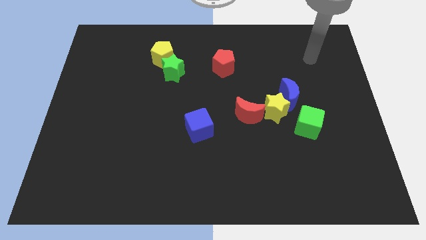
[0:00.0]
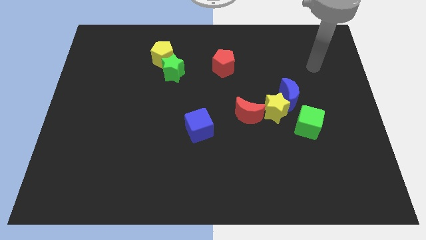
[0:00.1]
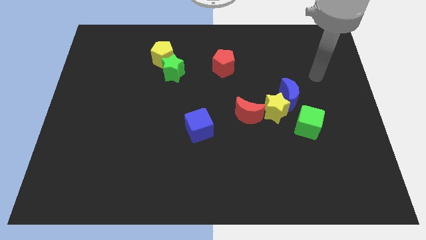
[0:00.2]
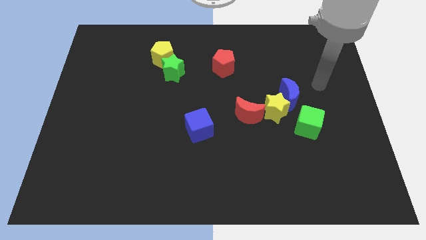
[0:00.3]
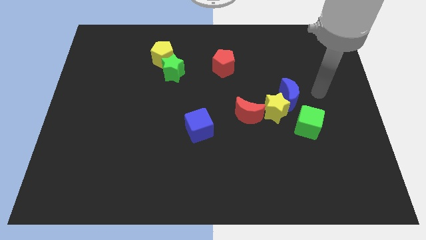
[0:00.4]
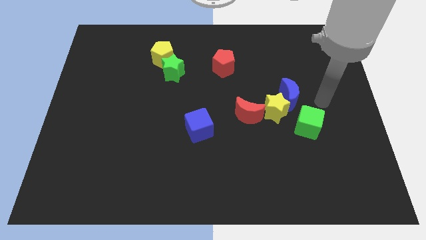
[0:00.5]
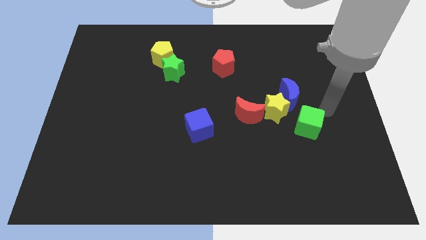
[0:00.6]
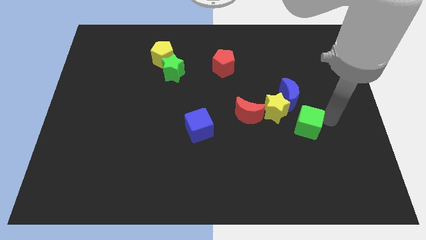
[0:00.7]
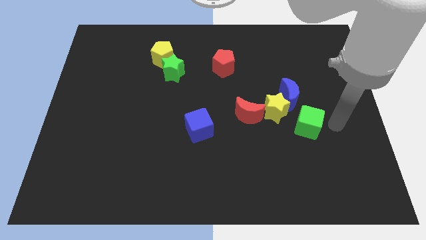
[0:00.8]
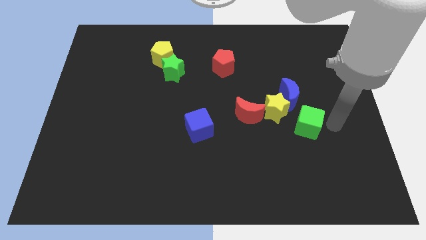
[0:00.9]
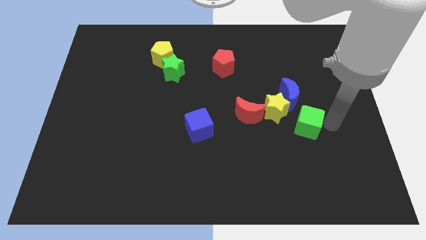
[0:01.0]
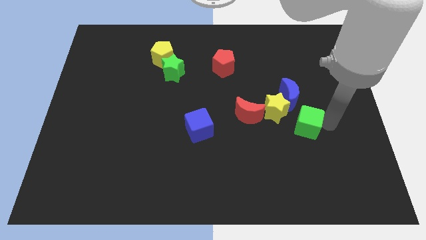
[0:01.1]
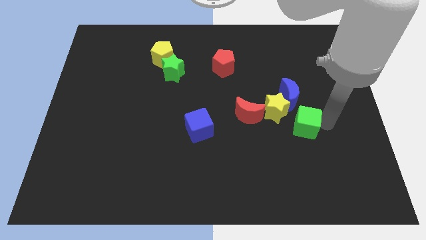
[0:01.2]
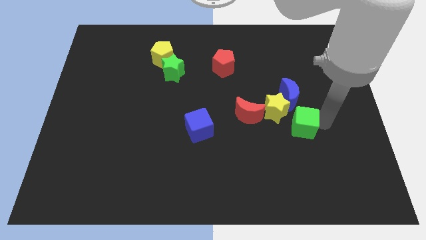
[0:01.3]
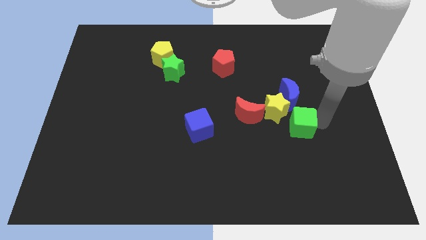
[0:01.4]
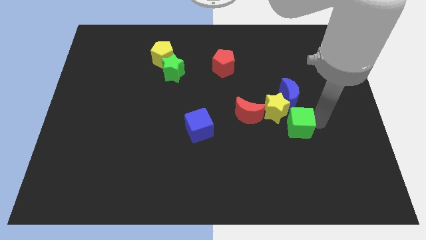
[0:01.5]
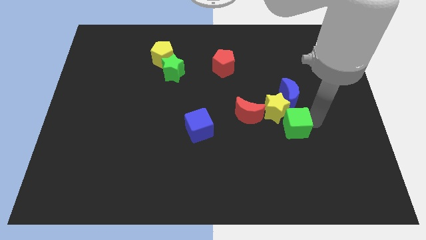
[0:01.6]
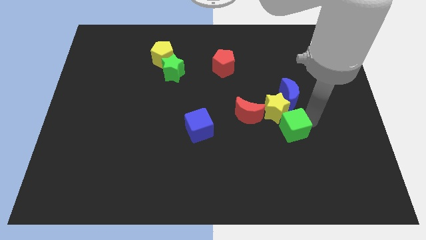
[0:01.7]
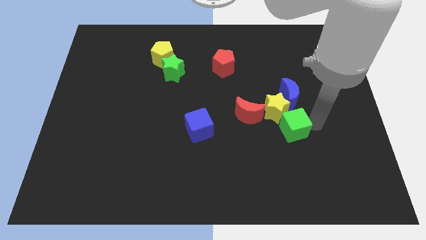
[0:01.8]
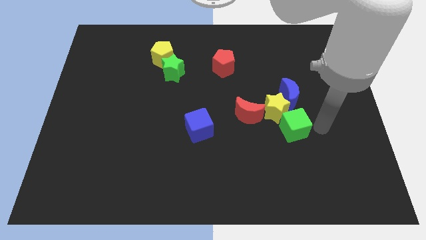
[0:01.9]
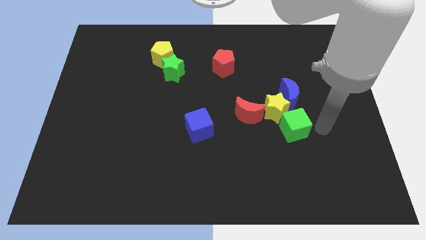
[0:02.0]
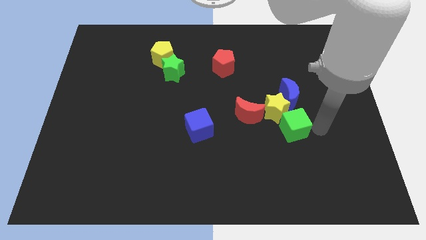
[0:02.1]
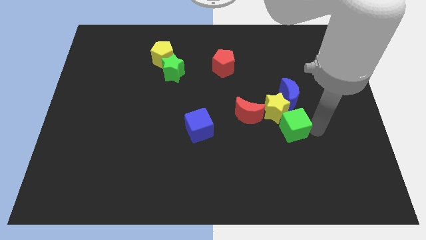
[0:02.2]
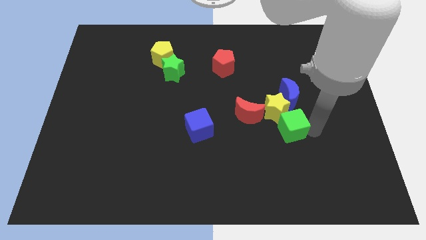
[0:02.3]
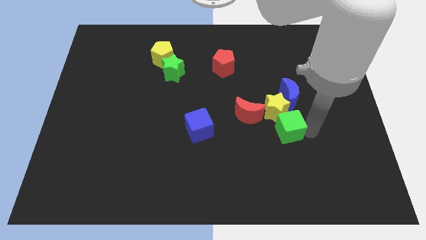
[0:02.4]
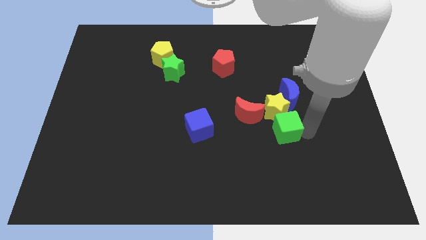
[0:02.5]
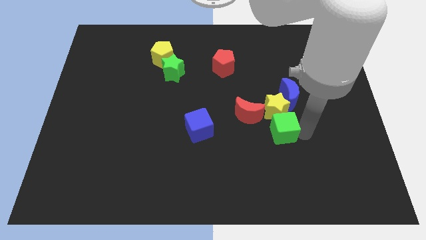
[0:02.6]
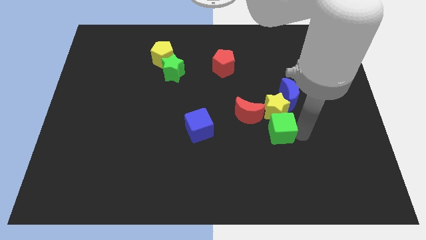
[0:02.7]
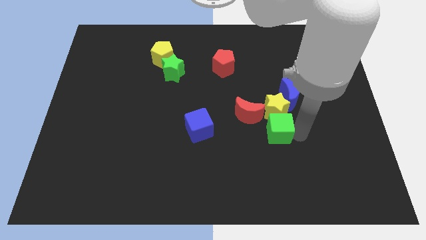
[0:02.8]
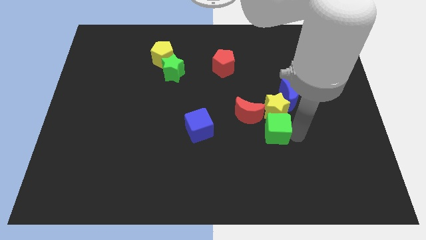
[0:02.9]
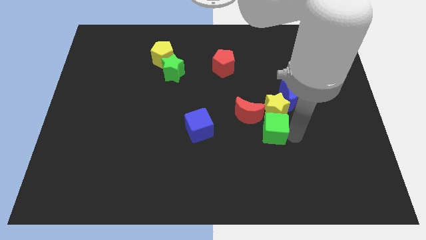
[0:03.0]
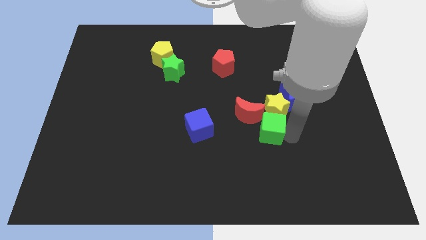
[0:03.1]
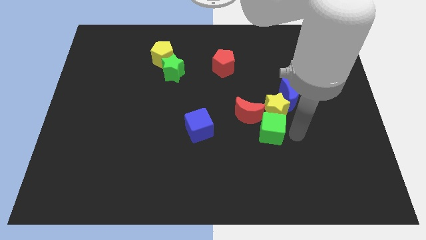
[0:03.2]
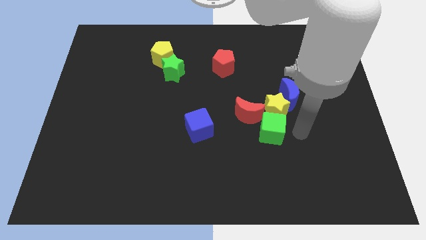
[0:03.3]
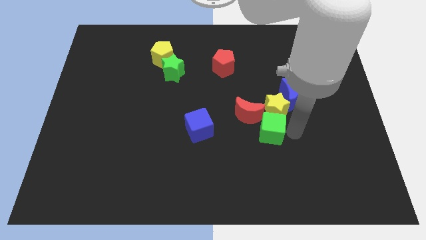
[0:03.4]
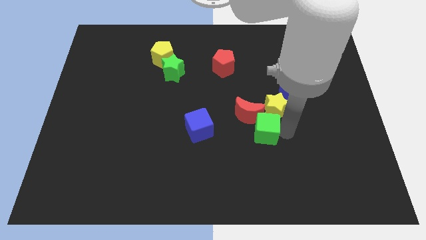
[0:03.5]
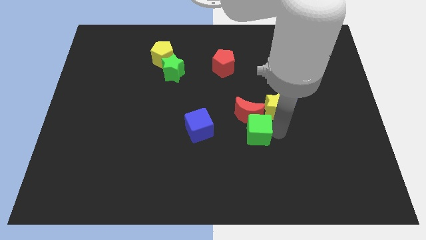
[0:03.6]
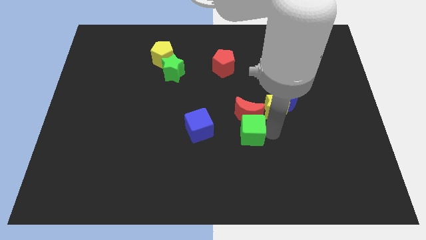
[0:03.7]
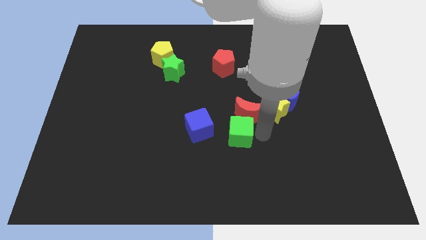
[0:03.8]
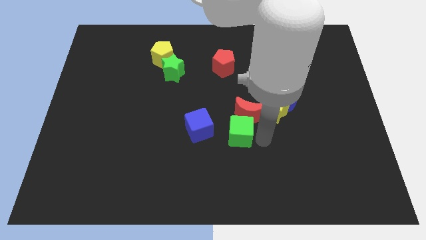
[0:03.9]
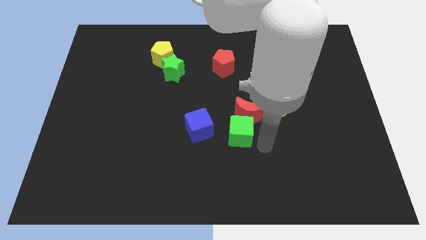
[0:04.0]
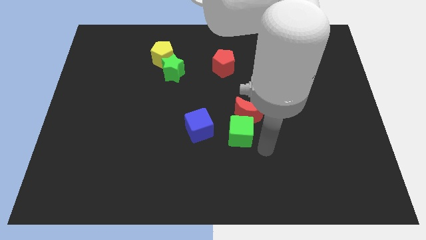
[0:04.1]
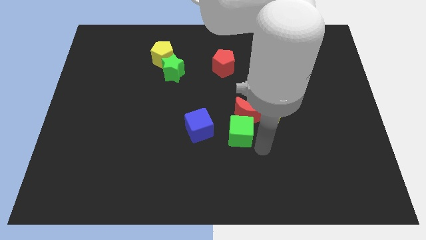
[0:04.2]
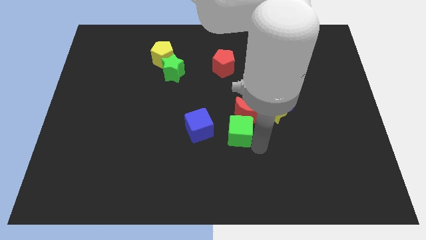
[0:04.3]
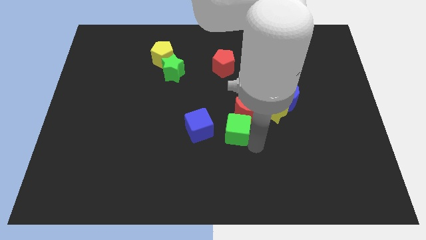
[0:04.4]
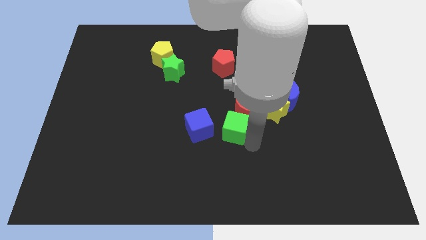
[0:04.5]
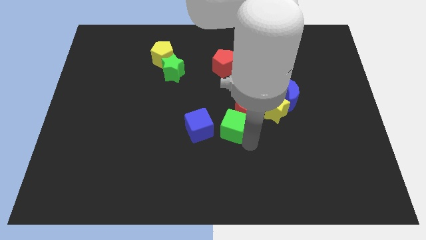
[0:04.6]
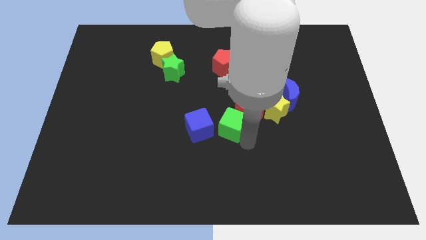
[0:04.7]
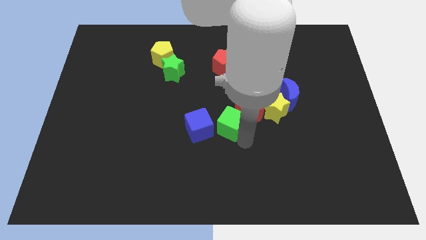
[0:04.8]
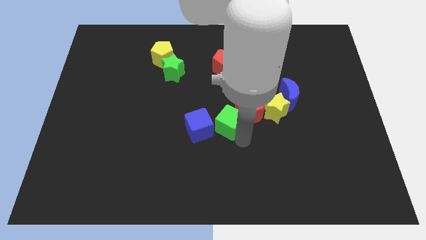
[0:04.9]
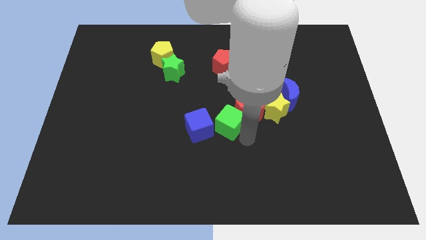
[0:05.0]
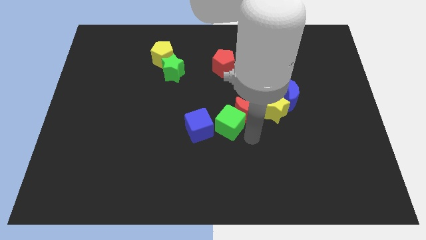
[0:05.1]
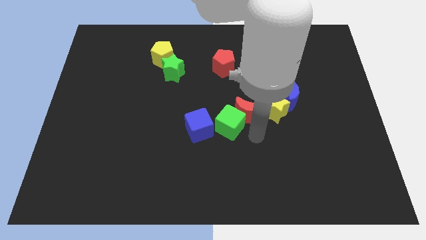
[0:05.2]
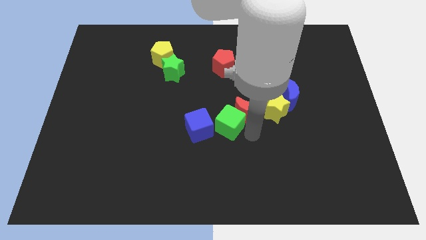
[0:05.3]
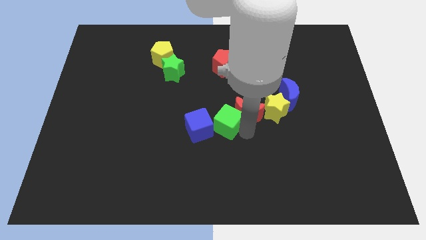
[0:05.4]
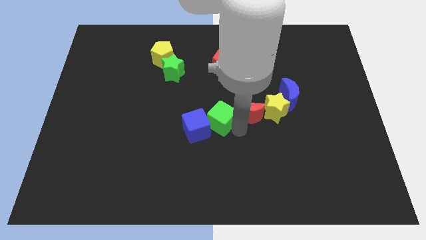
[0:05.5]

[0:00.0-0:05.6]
push the green cube to the left

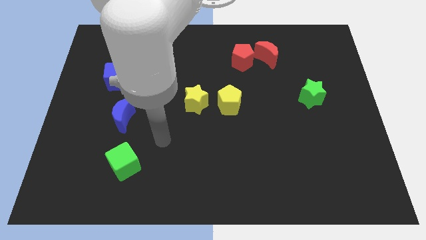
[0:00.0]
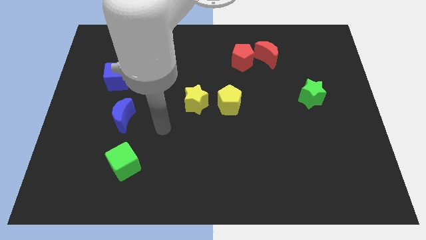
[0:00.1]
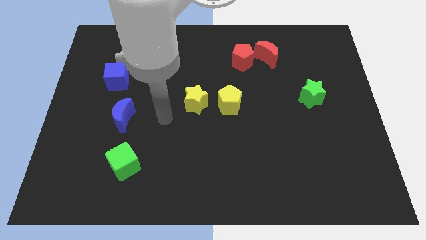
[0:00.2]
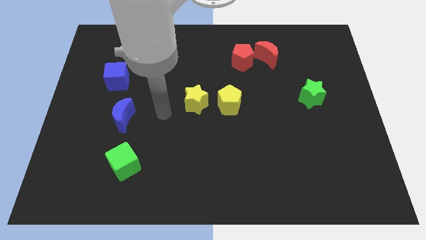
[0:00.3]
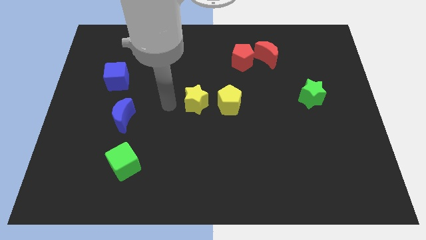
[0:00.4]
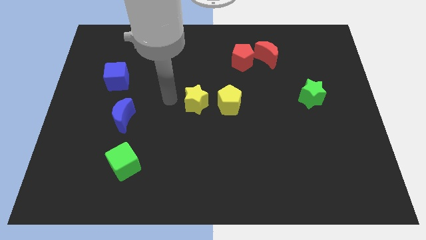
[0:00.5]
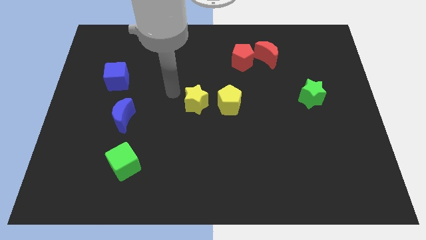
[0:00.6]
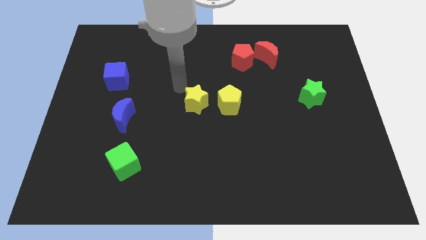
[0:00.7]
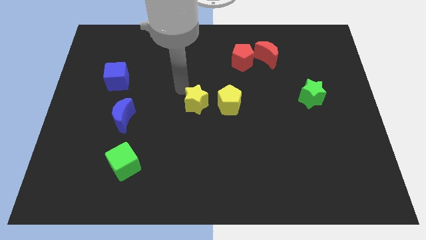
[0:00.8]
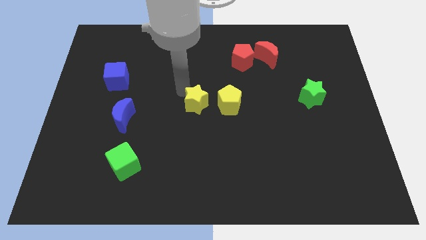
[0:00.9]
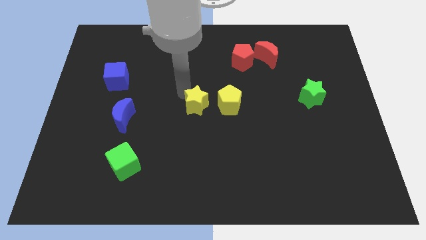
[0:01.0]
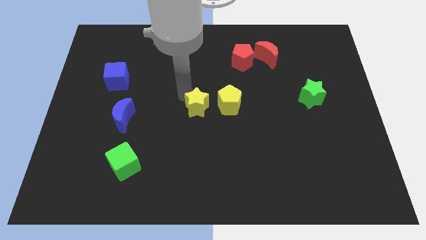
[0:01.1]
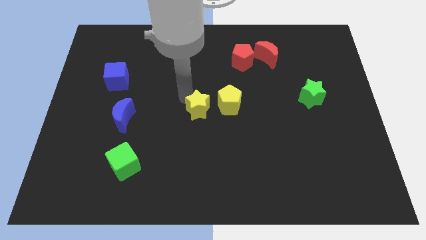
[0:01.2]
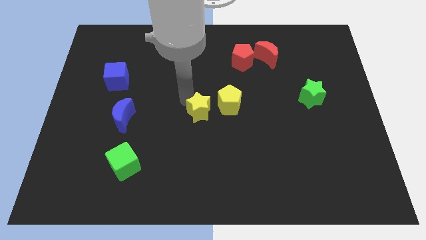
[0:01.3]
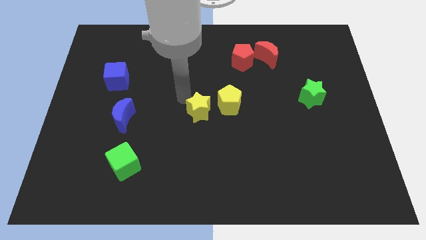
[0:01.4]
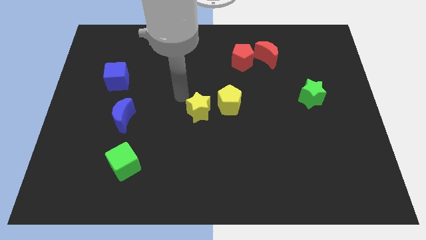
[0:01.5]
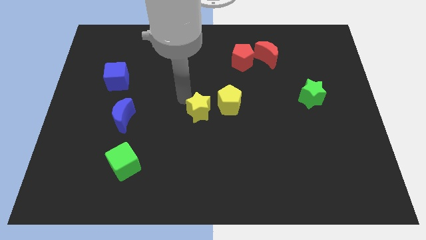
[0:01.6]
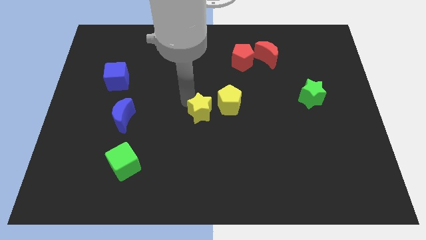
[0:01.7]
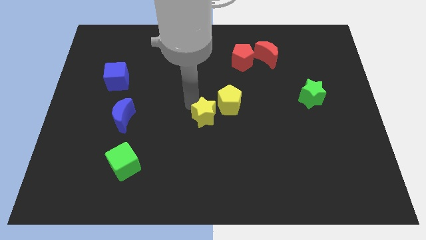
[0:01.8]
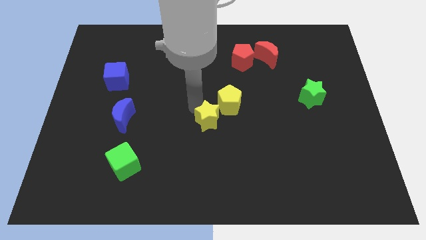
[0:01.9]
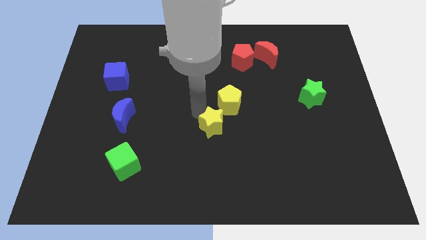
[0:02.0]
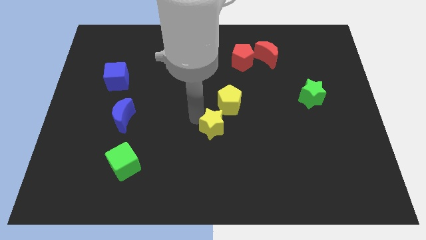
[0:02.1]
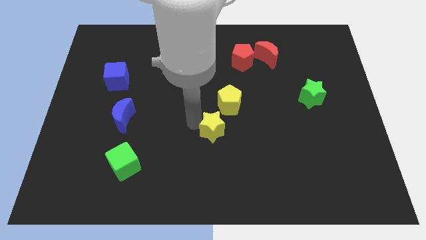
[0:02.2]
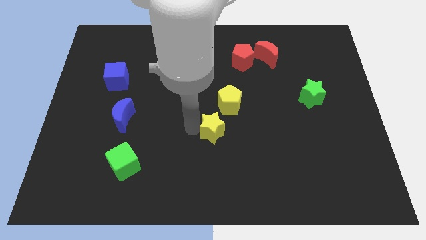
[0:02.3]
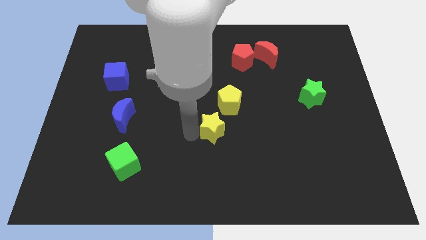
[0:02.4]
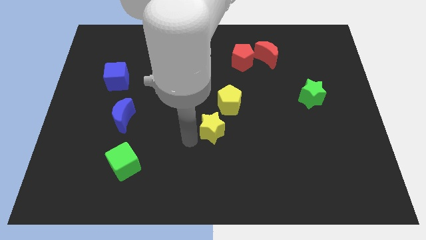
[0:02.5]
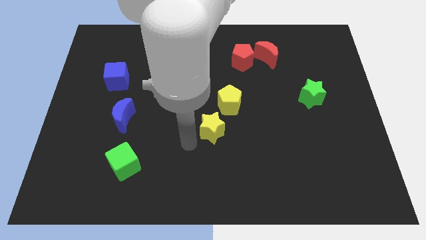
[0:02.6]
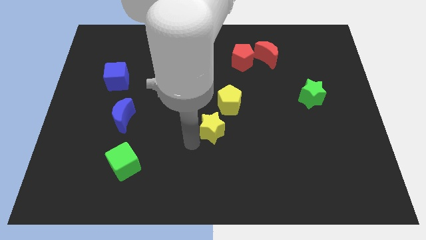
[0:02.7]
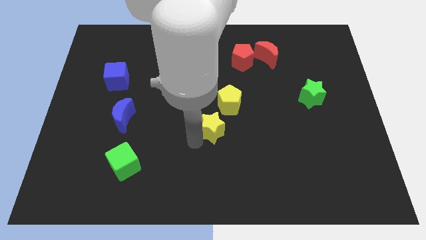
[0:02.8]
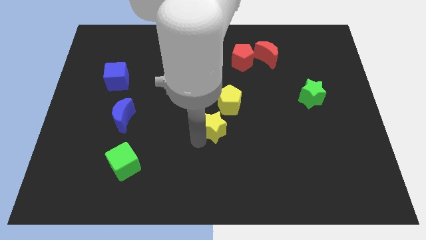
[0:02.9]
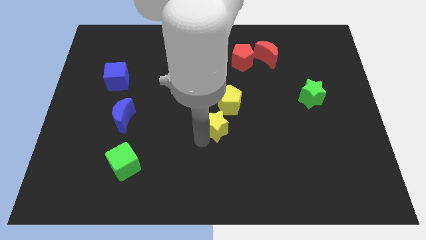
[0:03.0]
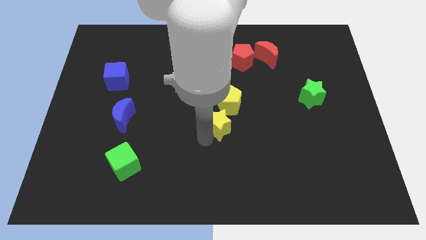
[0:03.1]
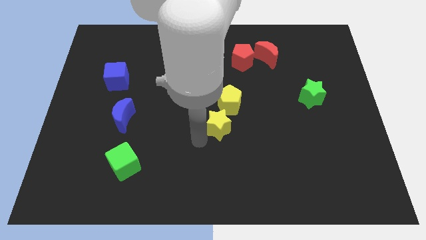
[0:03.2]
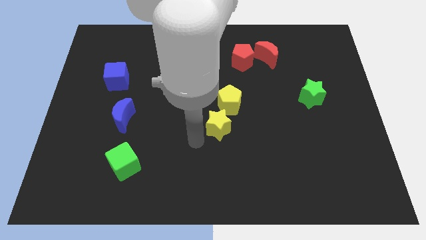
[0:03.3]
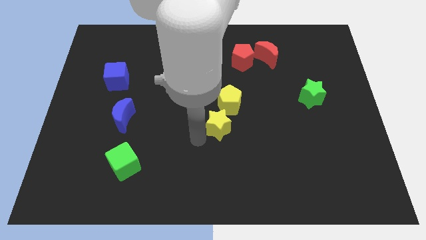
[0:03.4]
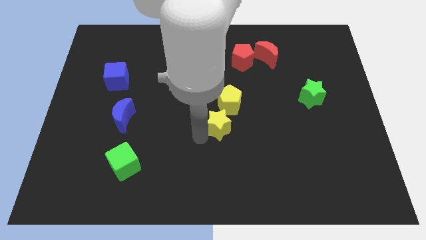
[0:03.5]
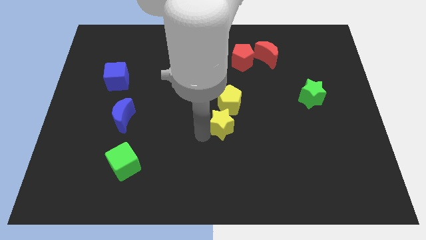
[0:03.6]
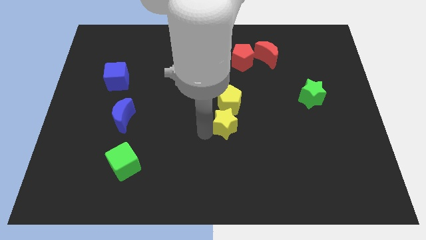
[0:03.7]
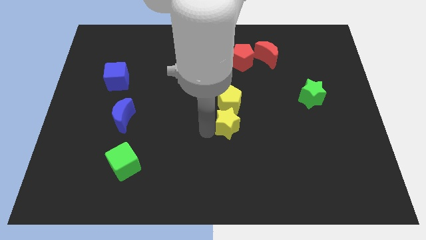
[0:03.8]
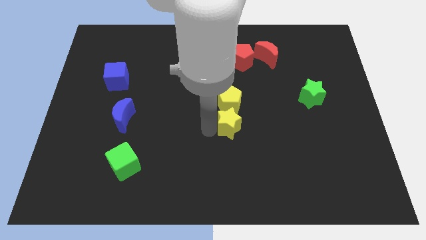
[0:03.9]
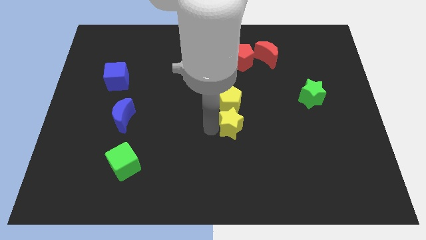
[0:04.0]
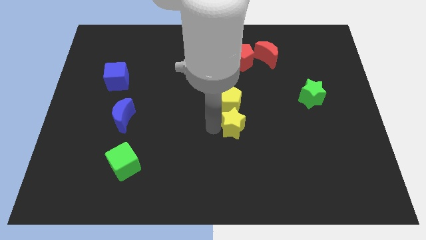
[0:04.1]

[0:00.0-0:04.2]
slightly slide the yellow star to the right
